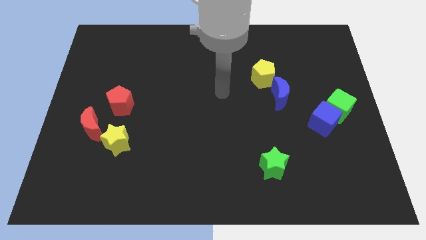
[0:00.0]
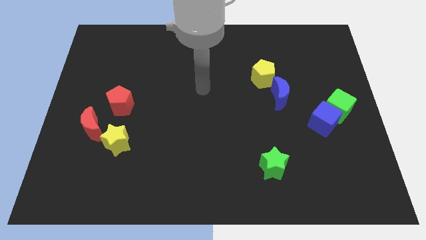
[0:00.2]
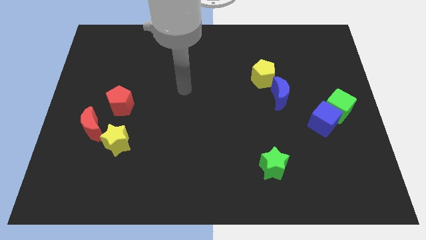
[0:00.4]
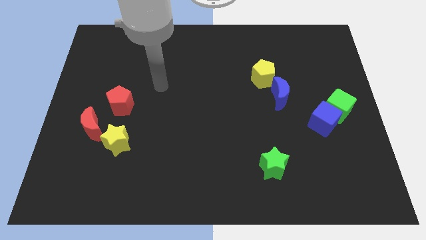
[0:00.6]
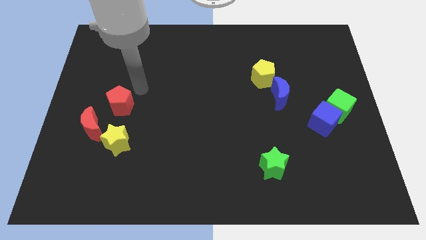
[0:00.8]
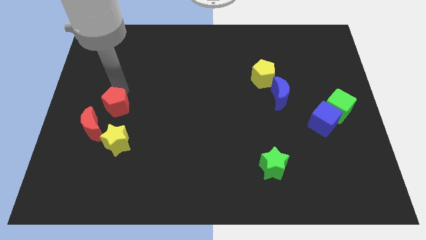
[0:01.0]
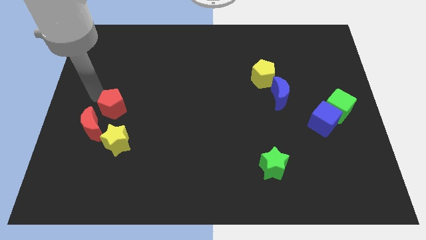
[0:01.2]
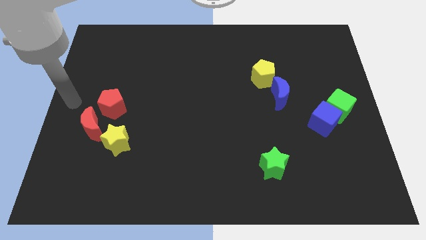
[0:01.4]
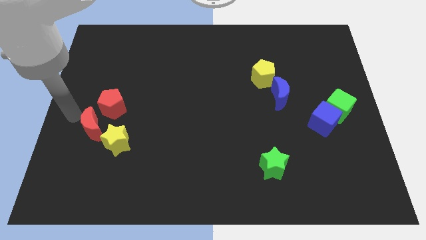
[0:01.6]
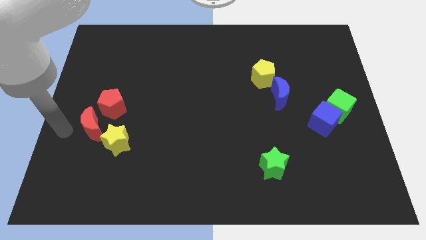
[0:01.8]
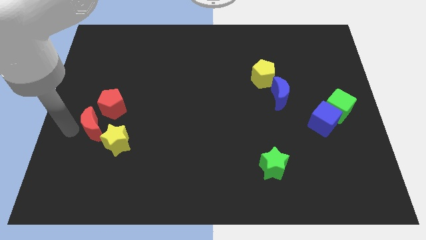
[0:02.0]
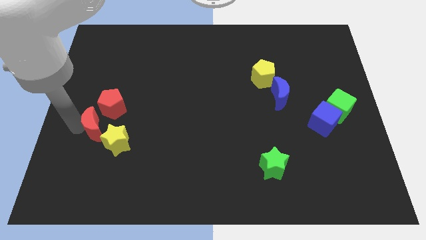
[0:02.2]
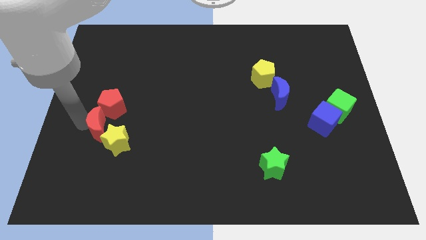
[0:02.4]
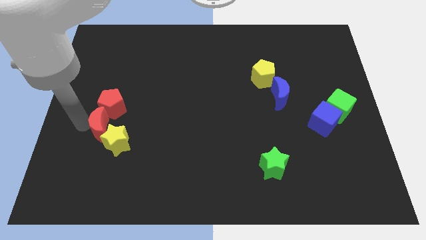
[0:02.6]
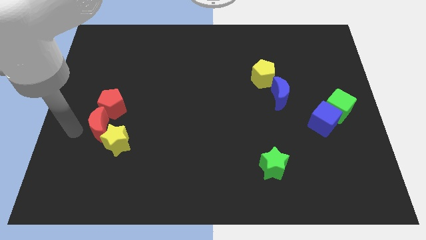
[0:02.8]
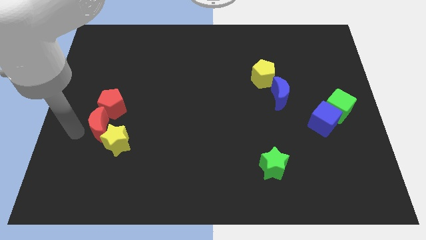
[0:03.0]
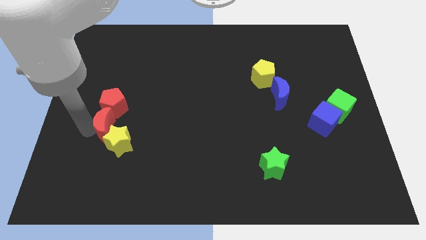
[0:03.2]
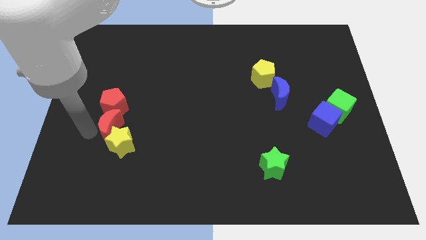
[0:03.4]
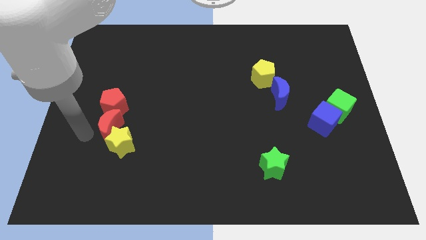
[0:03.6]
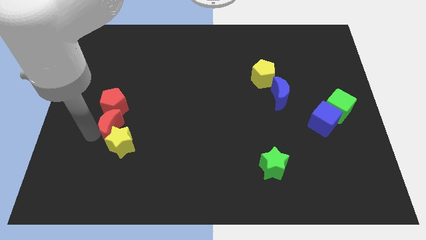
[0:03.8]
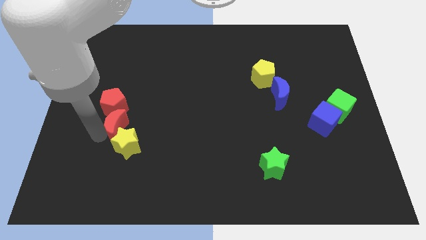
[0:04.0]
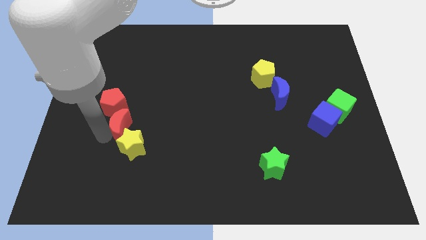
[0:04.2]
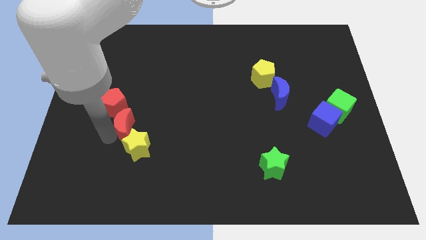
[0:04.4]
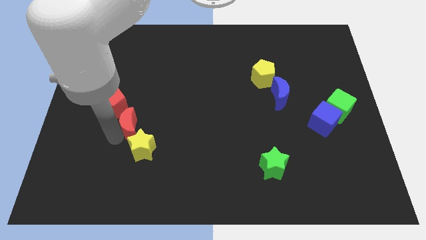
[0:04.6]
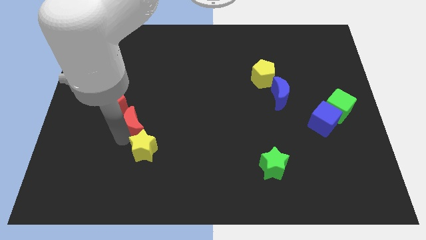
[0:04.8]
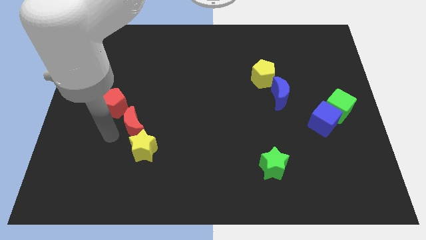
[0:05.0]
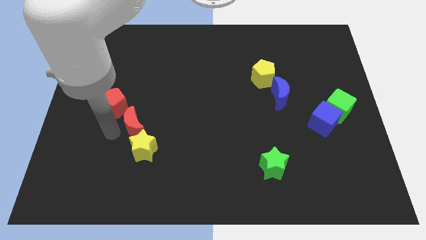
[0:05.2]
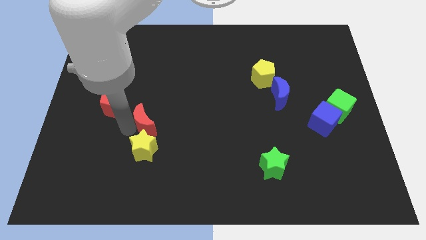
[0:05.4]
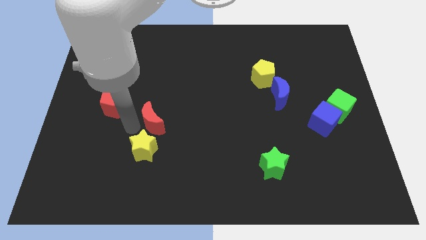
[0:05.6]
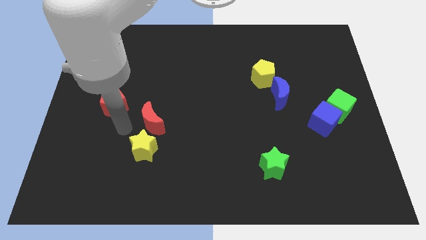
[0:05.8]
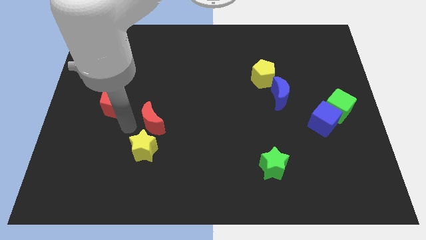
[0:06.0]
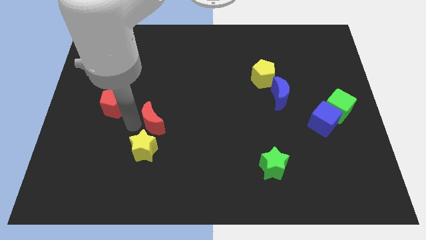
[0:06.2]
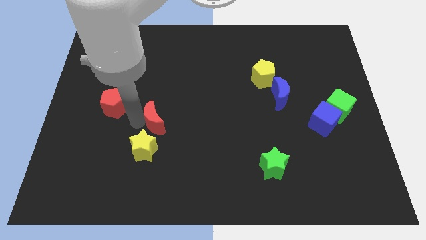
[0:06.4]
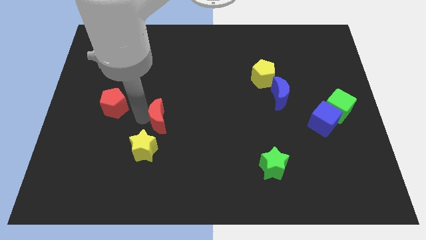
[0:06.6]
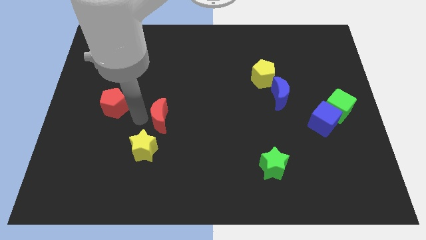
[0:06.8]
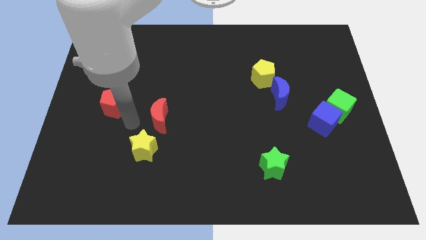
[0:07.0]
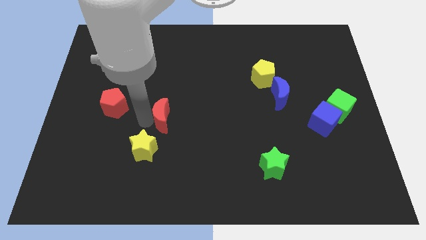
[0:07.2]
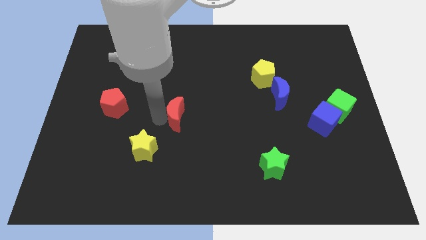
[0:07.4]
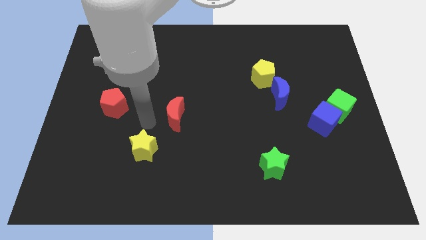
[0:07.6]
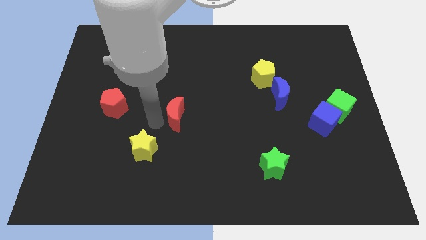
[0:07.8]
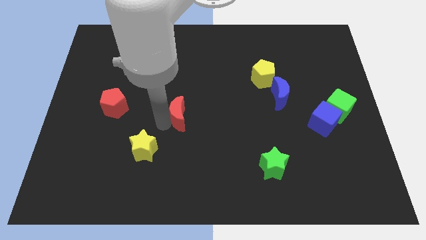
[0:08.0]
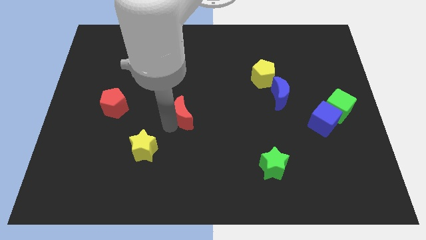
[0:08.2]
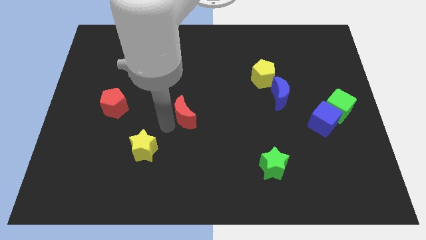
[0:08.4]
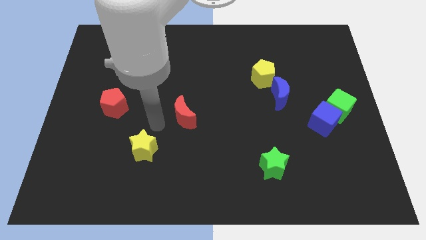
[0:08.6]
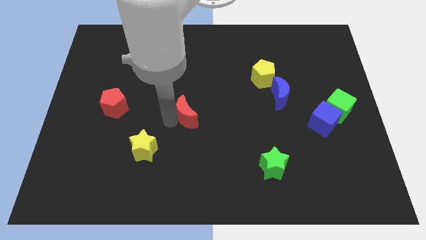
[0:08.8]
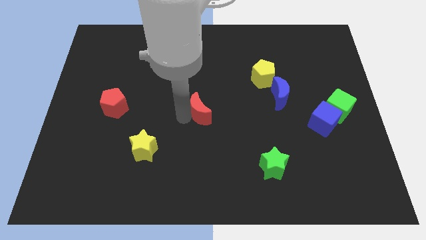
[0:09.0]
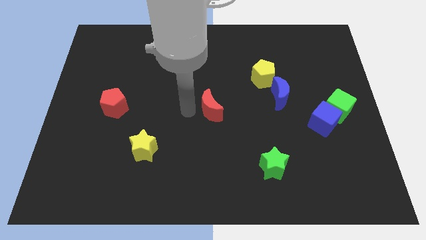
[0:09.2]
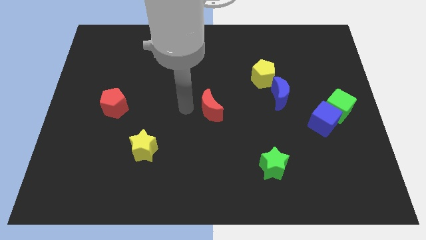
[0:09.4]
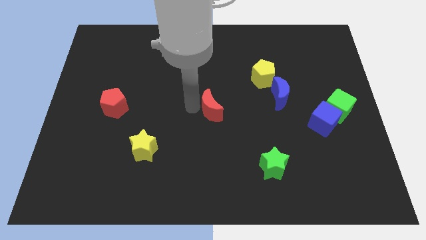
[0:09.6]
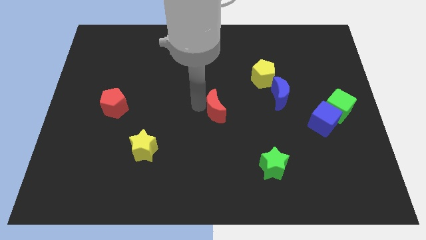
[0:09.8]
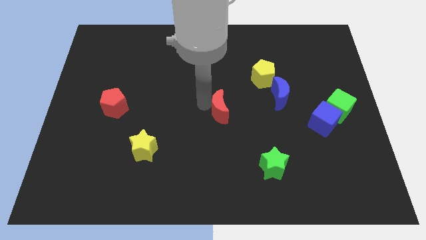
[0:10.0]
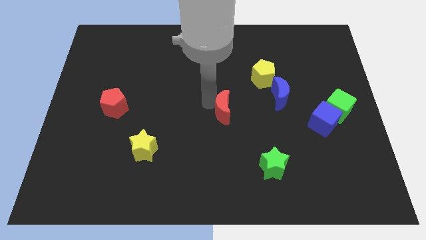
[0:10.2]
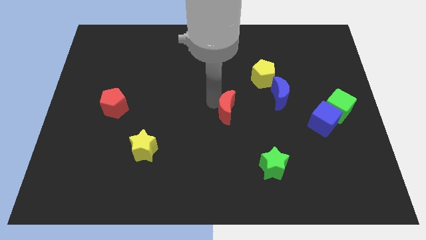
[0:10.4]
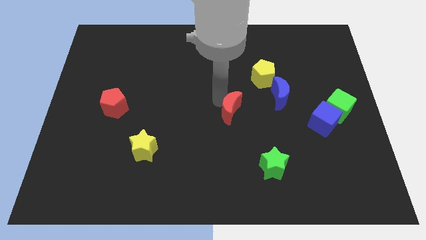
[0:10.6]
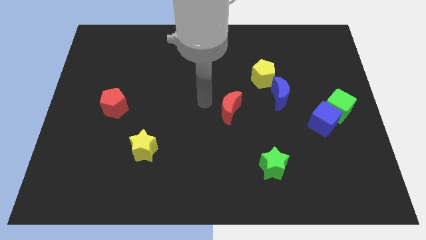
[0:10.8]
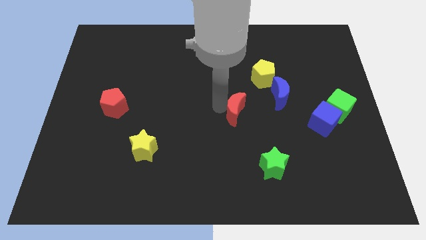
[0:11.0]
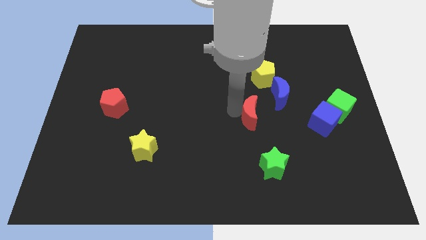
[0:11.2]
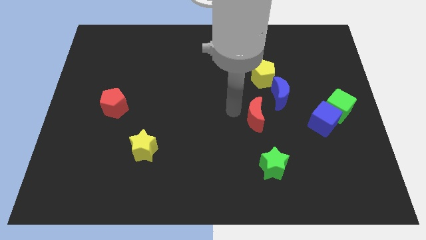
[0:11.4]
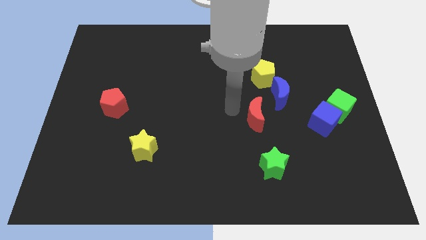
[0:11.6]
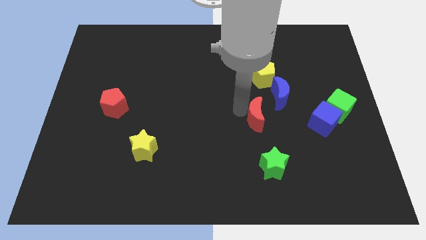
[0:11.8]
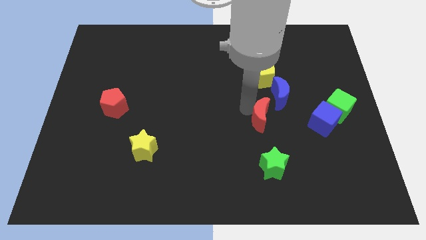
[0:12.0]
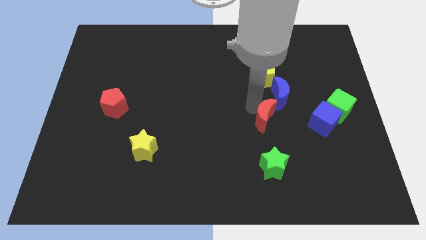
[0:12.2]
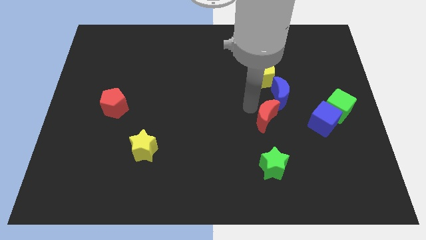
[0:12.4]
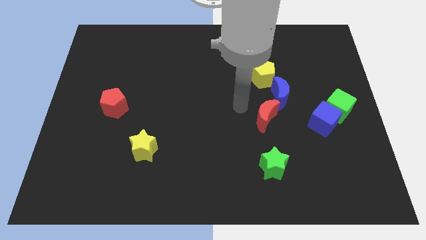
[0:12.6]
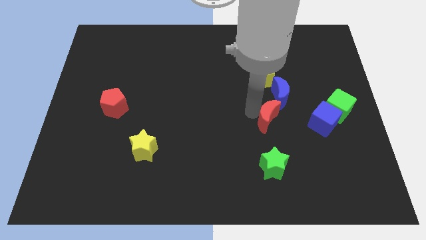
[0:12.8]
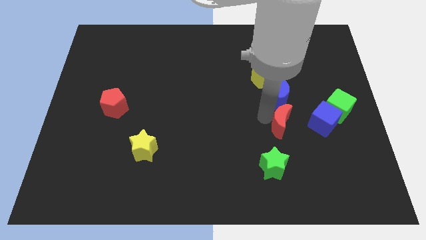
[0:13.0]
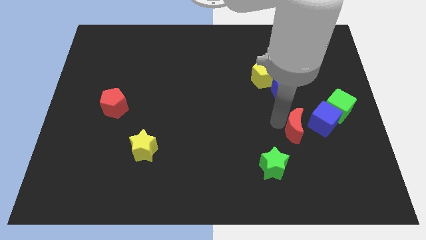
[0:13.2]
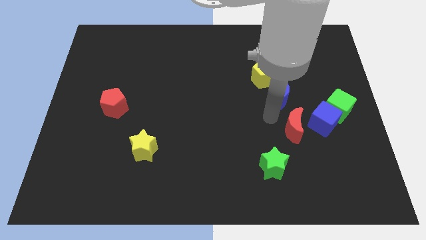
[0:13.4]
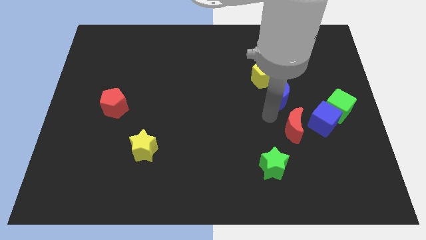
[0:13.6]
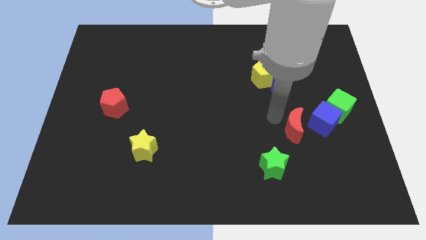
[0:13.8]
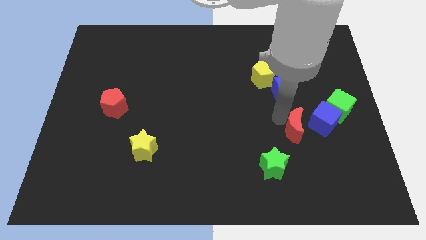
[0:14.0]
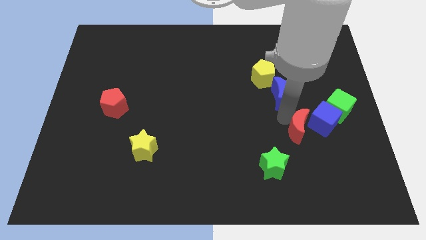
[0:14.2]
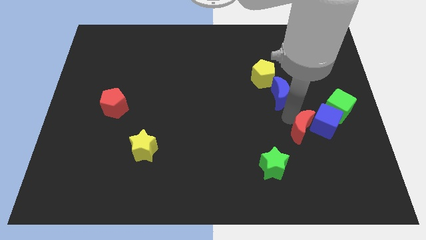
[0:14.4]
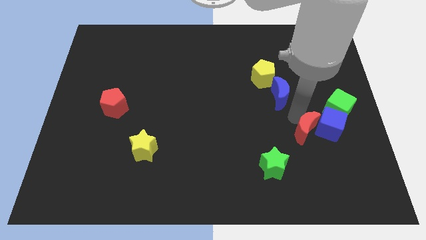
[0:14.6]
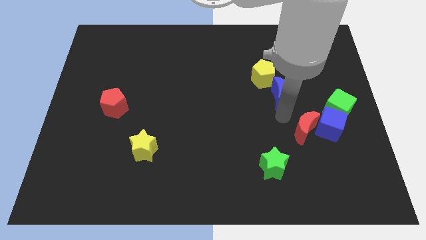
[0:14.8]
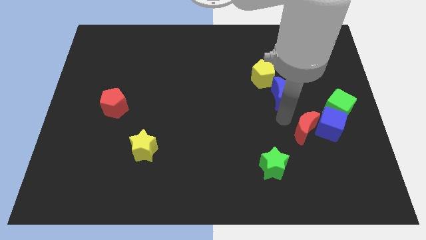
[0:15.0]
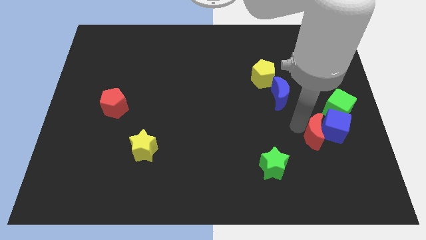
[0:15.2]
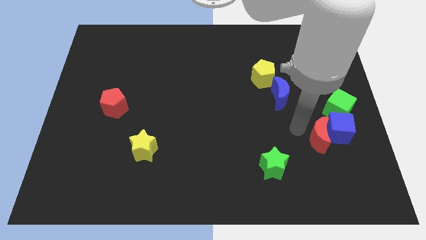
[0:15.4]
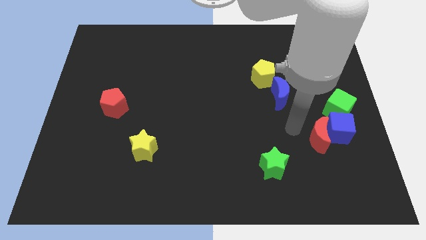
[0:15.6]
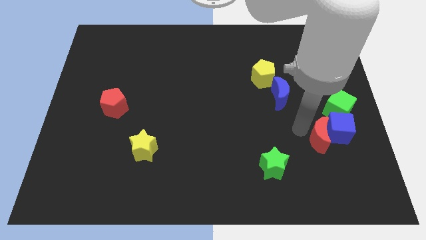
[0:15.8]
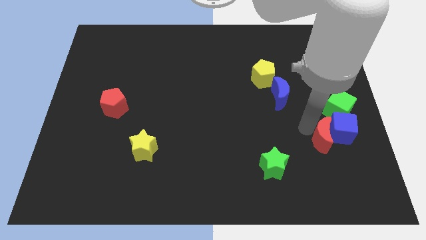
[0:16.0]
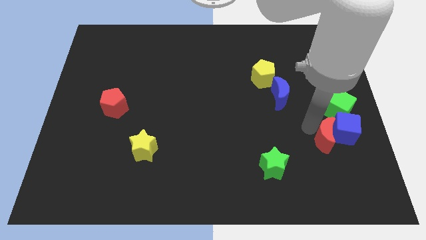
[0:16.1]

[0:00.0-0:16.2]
put the red moon below the green cube
